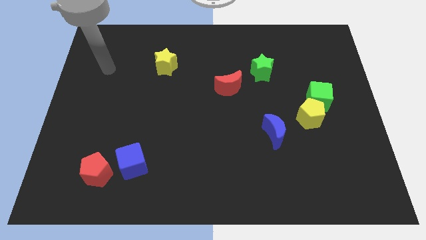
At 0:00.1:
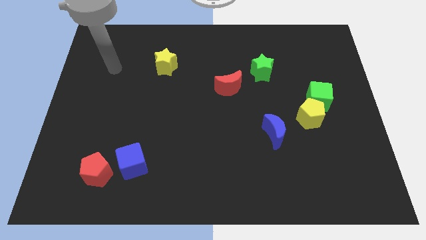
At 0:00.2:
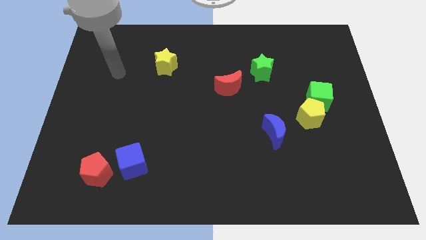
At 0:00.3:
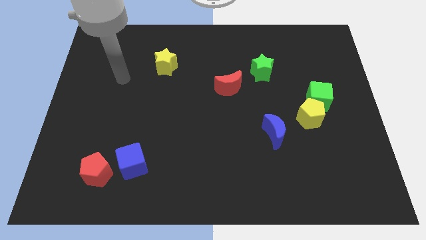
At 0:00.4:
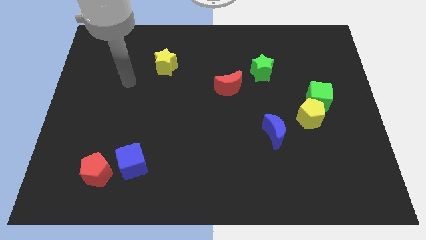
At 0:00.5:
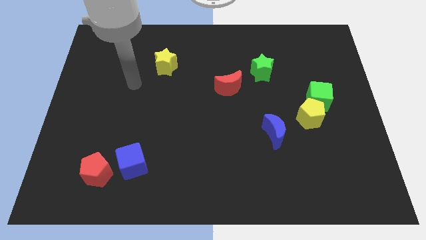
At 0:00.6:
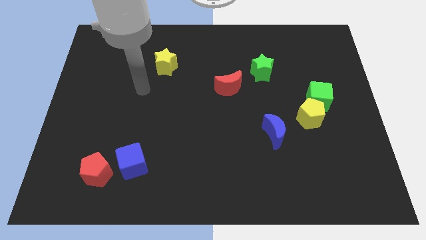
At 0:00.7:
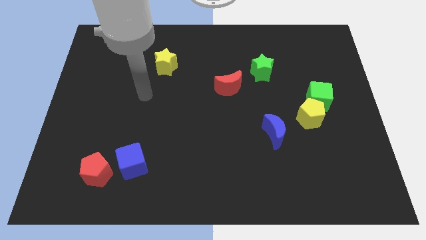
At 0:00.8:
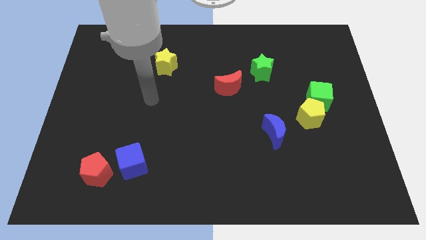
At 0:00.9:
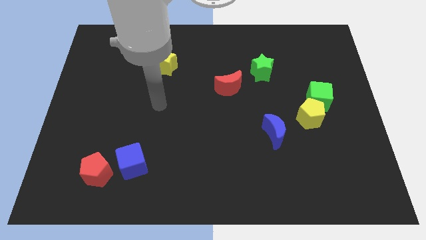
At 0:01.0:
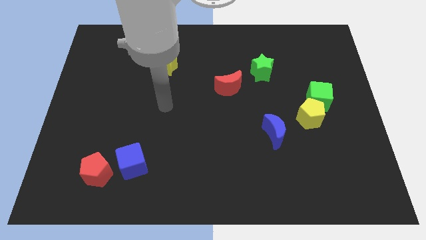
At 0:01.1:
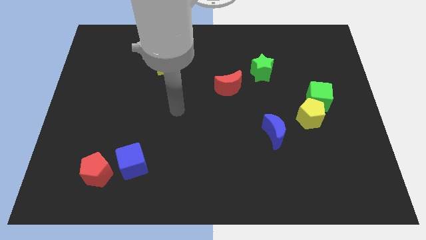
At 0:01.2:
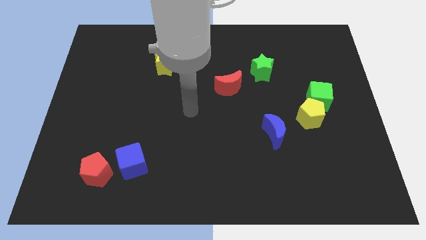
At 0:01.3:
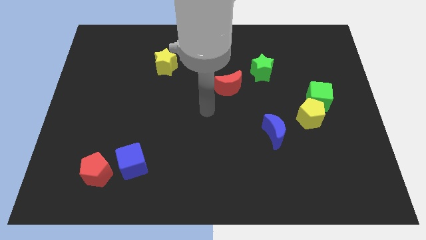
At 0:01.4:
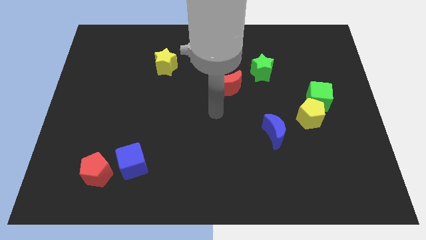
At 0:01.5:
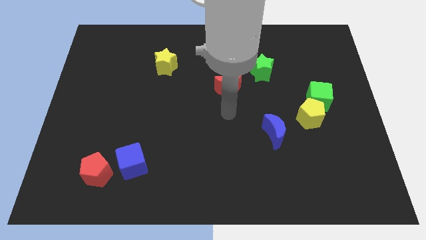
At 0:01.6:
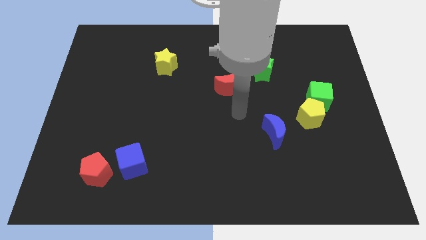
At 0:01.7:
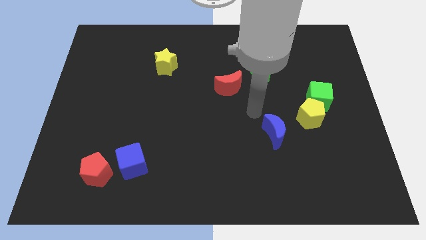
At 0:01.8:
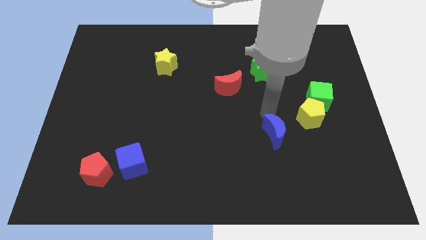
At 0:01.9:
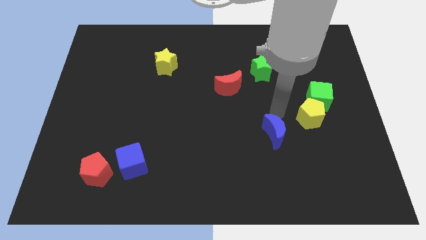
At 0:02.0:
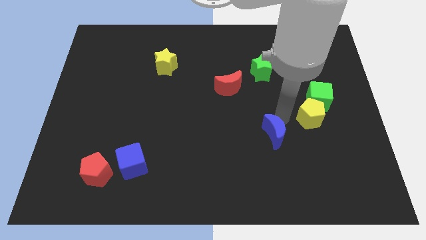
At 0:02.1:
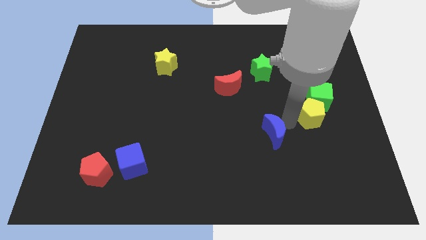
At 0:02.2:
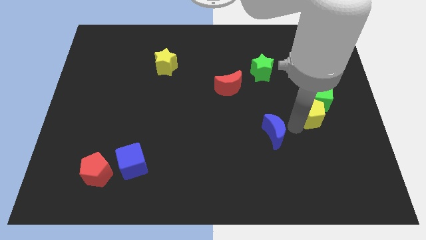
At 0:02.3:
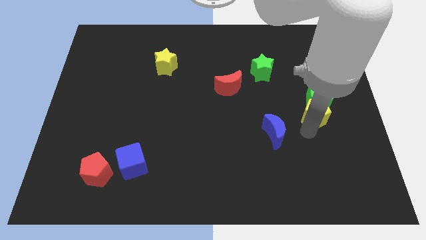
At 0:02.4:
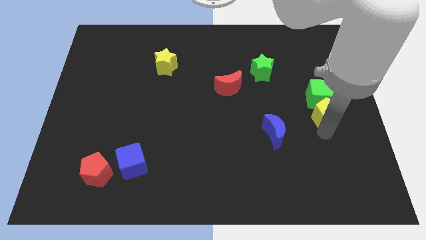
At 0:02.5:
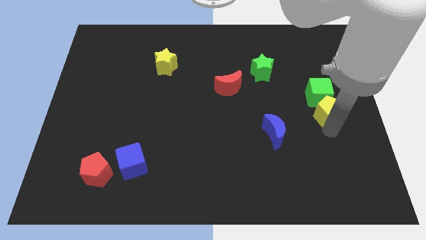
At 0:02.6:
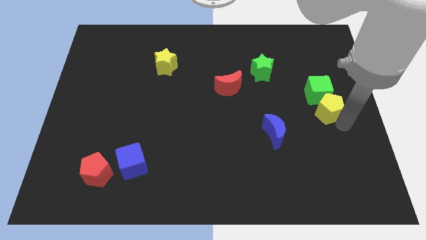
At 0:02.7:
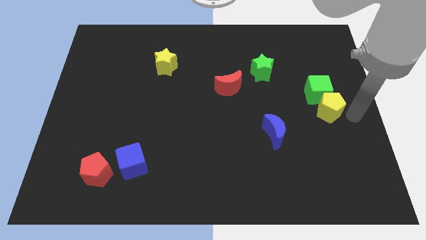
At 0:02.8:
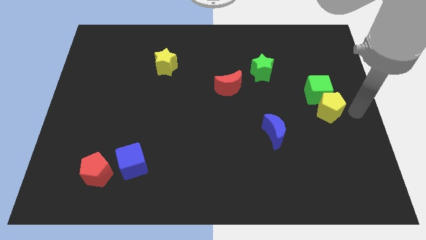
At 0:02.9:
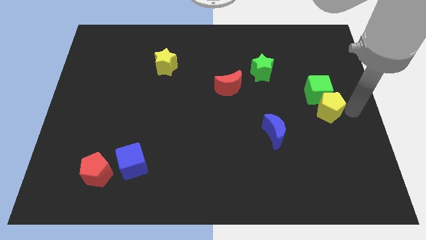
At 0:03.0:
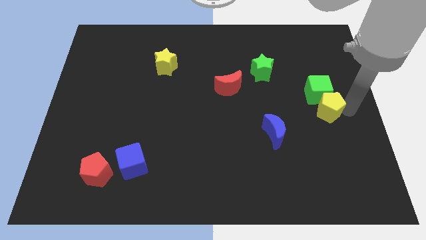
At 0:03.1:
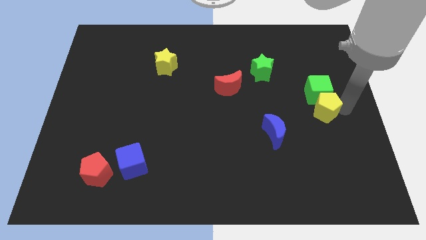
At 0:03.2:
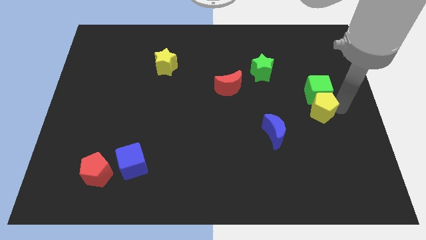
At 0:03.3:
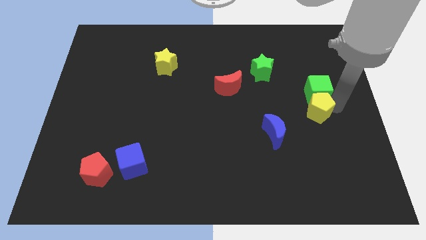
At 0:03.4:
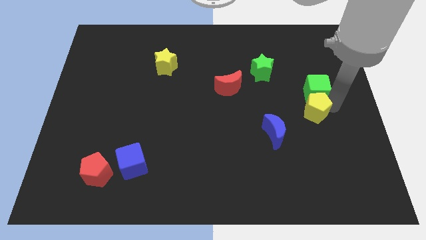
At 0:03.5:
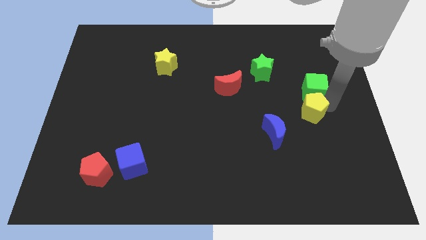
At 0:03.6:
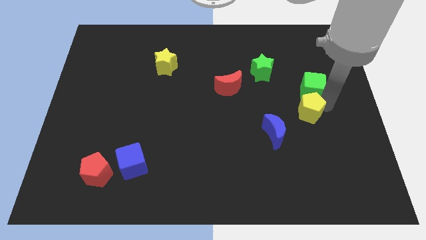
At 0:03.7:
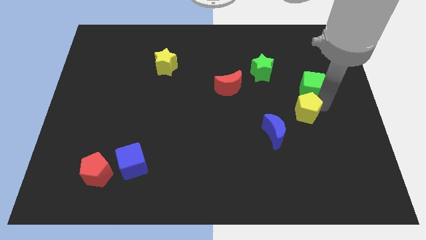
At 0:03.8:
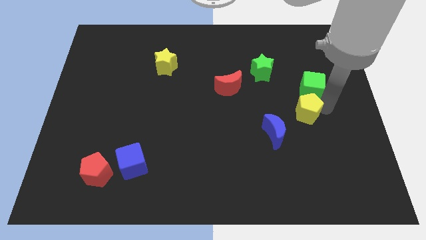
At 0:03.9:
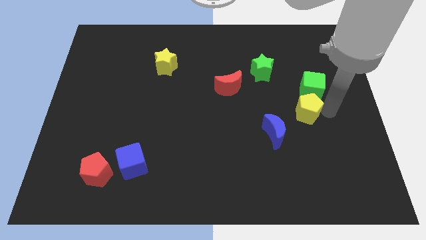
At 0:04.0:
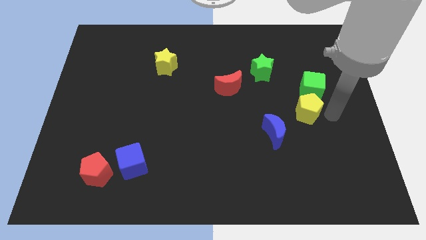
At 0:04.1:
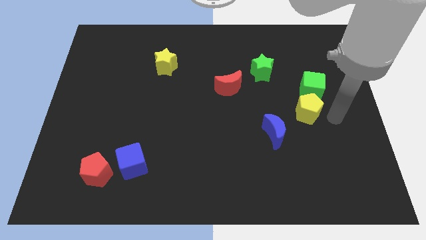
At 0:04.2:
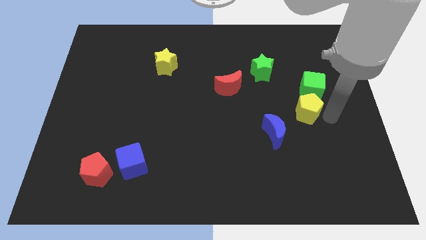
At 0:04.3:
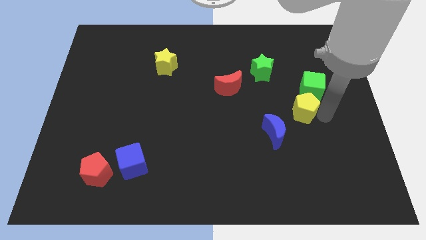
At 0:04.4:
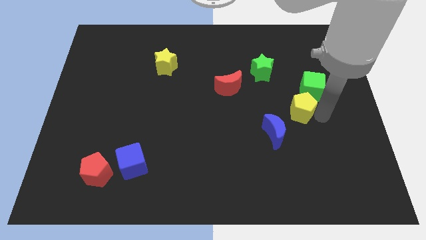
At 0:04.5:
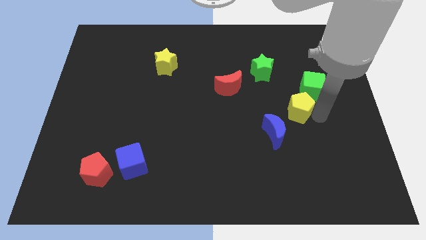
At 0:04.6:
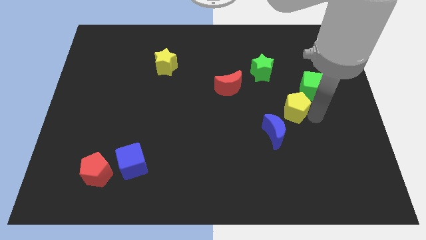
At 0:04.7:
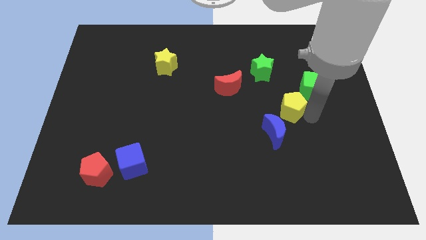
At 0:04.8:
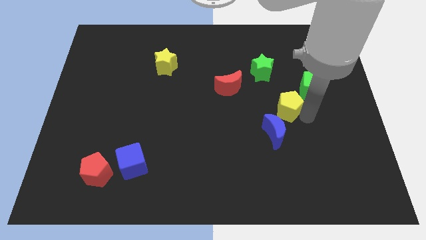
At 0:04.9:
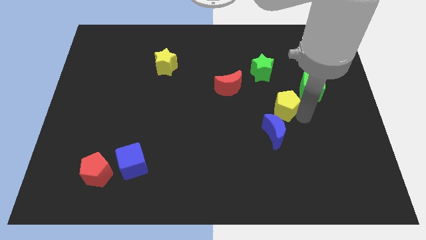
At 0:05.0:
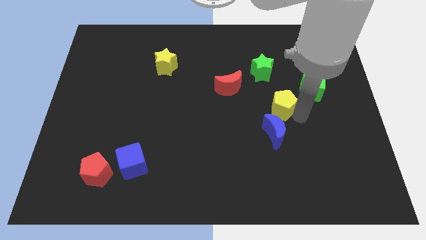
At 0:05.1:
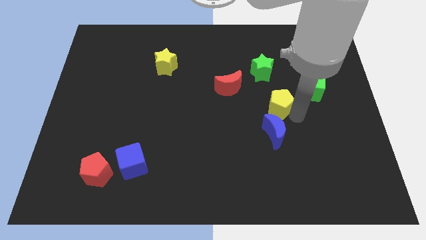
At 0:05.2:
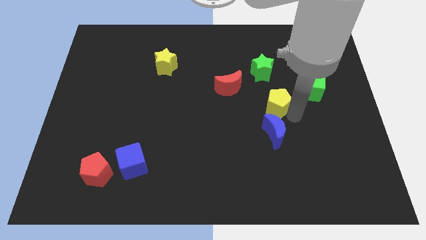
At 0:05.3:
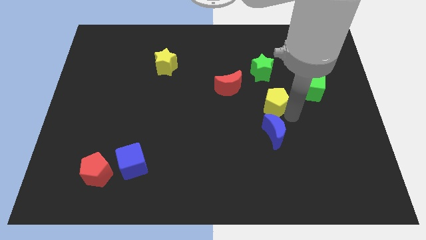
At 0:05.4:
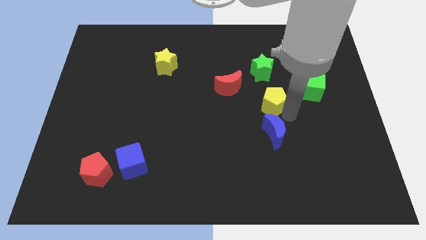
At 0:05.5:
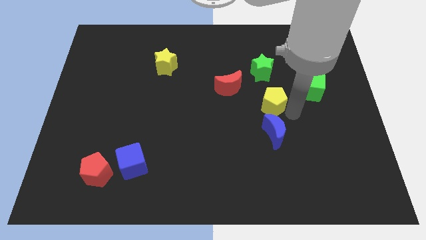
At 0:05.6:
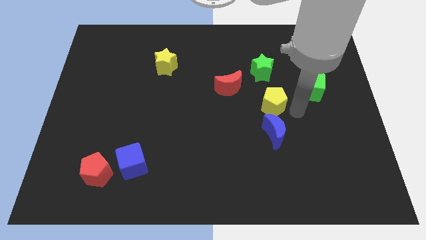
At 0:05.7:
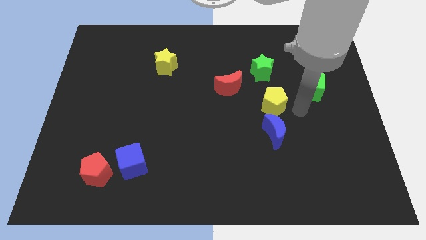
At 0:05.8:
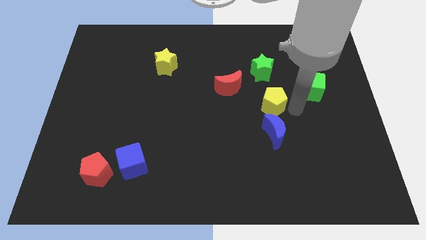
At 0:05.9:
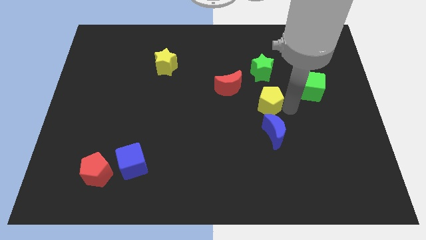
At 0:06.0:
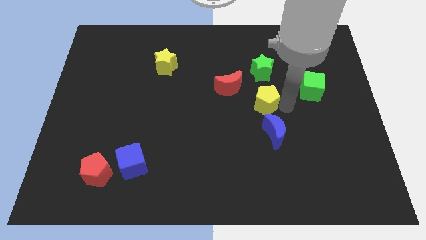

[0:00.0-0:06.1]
move the yellow pentagon to the center
